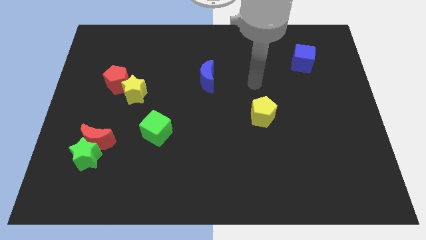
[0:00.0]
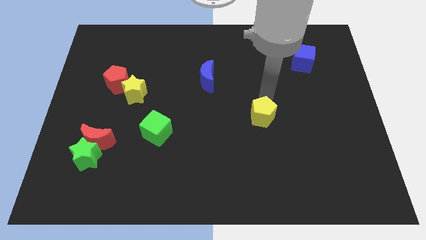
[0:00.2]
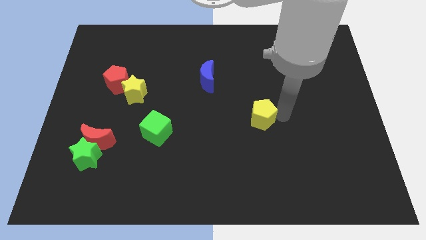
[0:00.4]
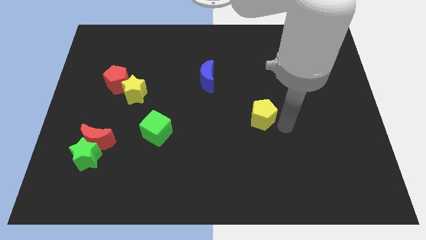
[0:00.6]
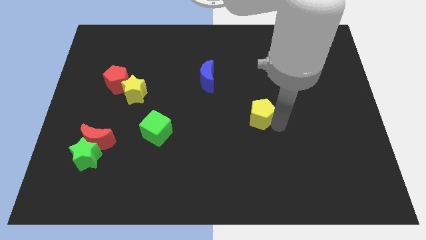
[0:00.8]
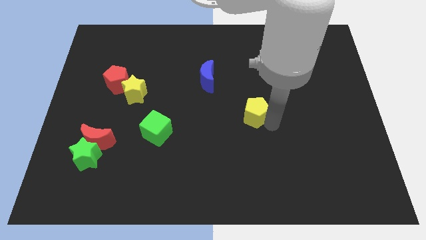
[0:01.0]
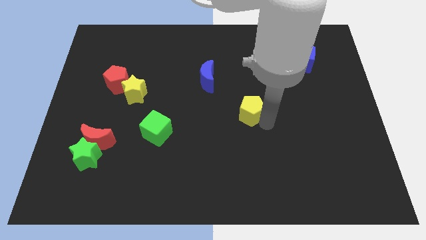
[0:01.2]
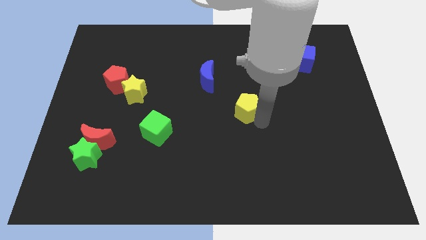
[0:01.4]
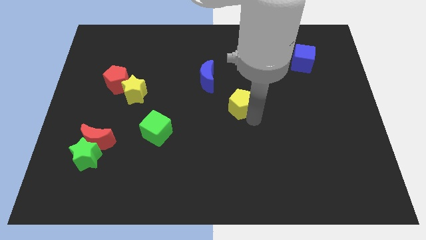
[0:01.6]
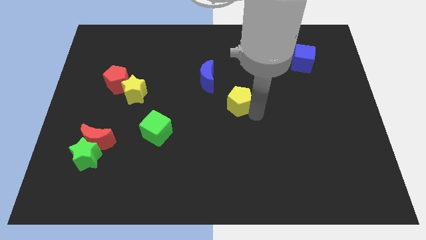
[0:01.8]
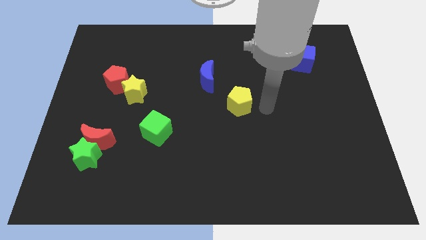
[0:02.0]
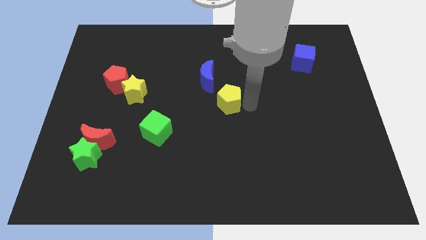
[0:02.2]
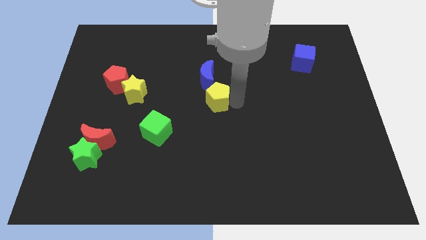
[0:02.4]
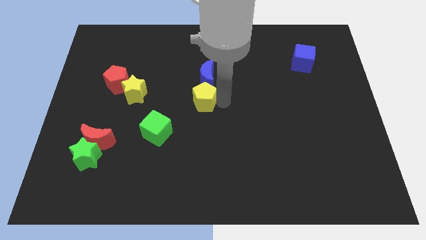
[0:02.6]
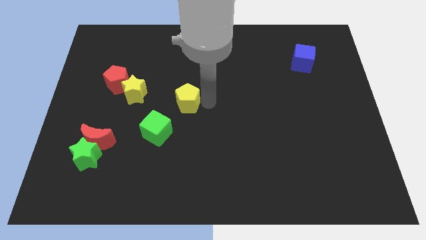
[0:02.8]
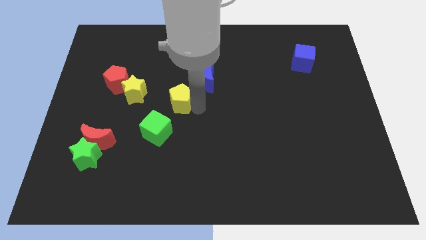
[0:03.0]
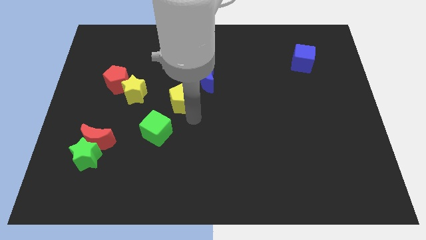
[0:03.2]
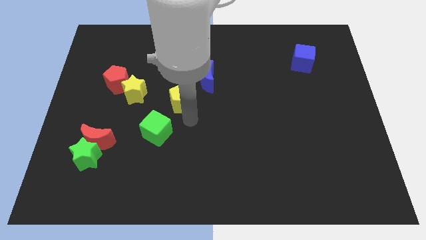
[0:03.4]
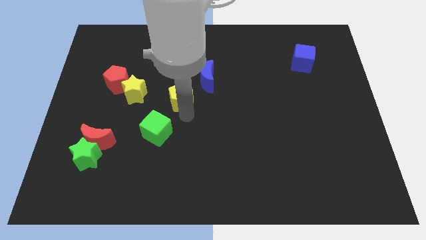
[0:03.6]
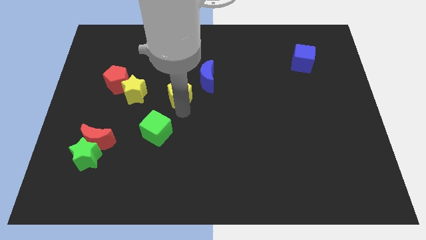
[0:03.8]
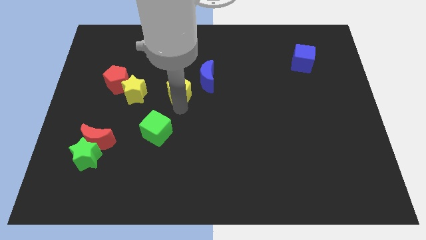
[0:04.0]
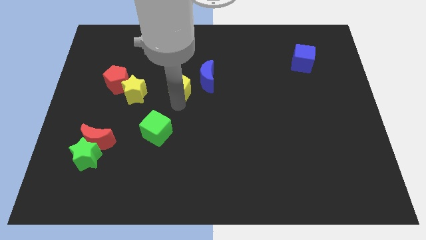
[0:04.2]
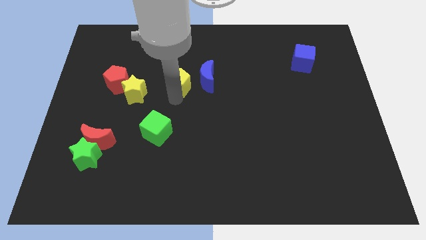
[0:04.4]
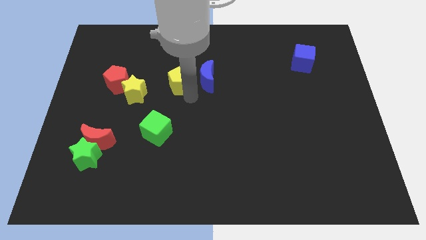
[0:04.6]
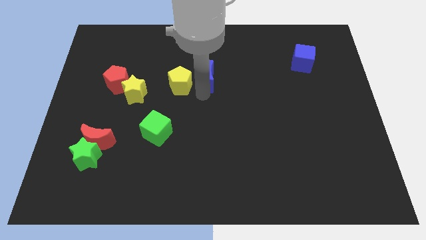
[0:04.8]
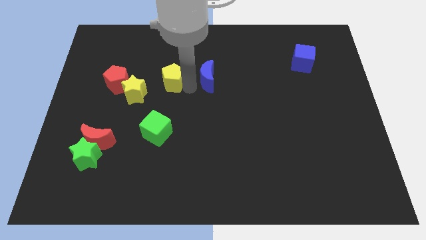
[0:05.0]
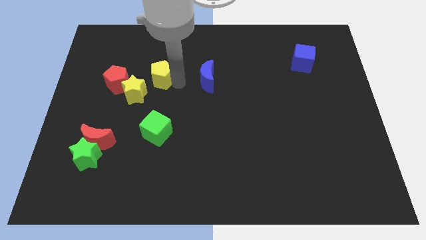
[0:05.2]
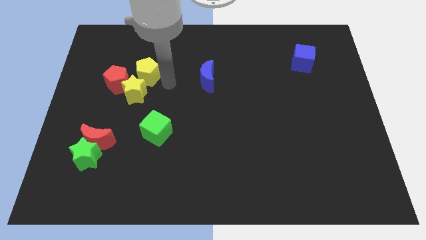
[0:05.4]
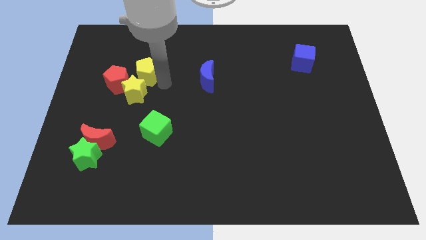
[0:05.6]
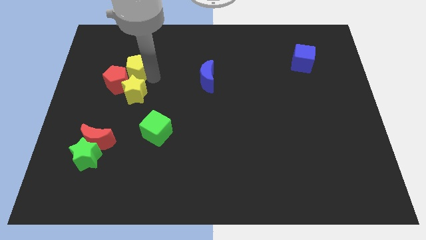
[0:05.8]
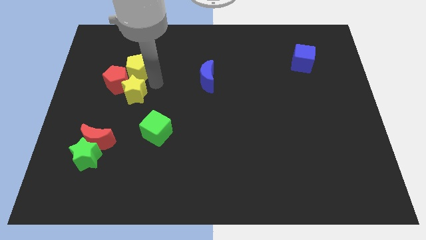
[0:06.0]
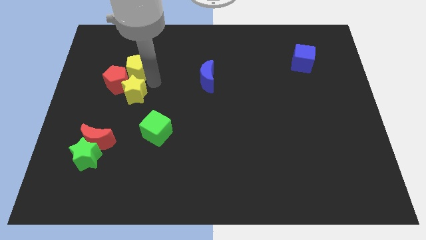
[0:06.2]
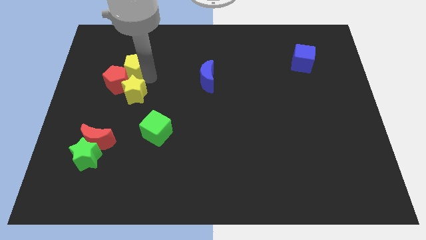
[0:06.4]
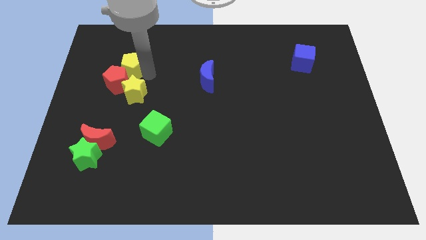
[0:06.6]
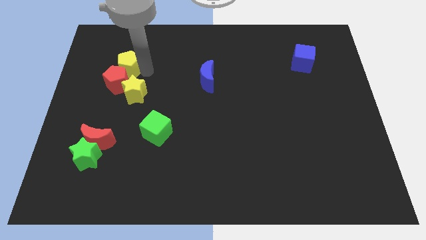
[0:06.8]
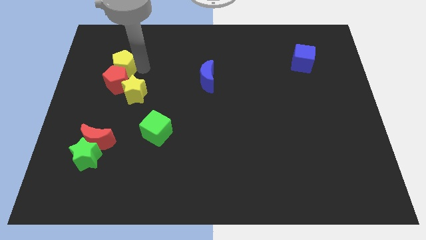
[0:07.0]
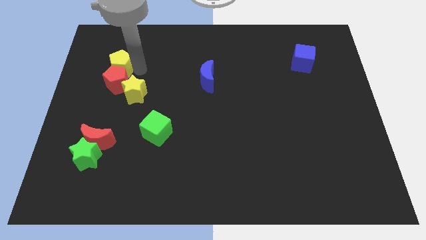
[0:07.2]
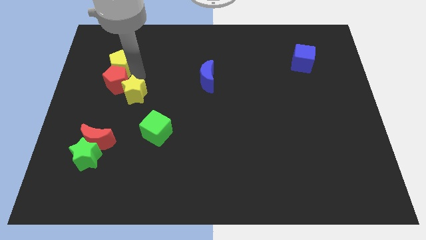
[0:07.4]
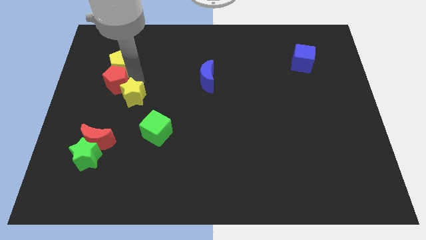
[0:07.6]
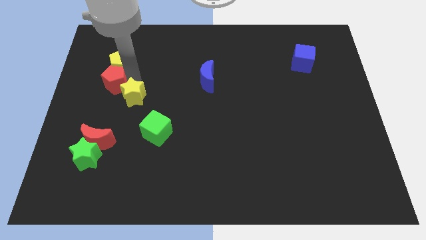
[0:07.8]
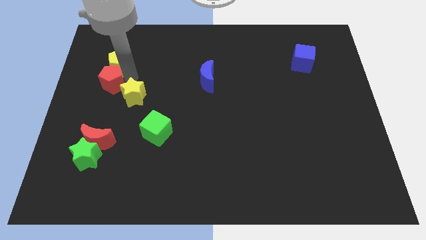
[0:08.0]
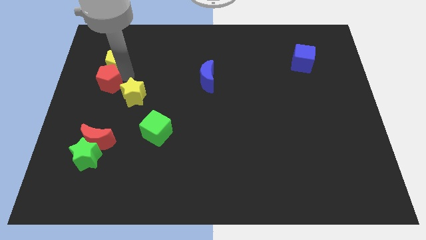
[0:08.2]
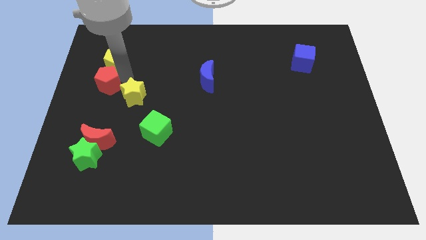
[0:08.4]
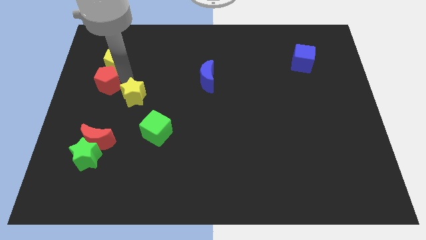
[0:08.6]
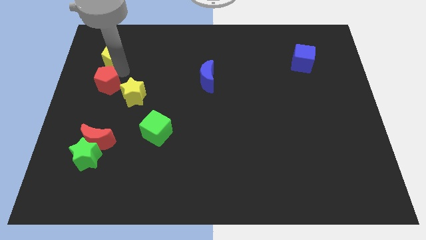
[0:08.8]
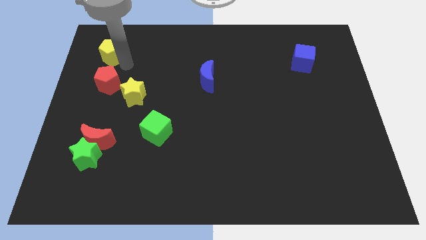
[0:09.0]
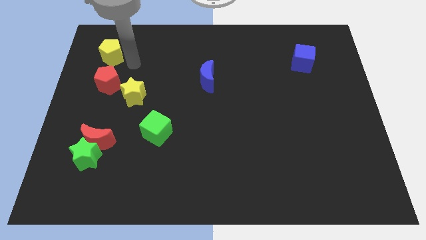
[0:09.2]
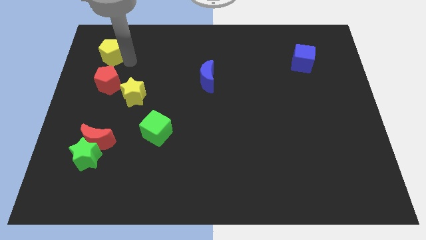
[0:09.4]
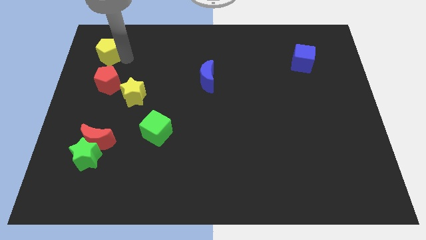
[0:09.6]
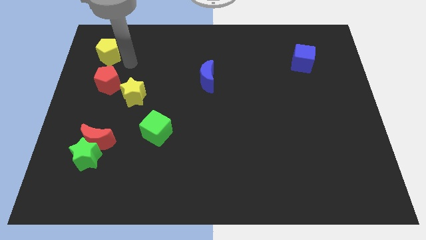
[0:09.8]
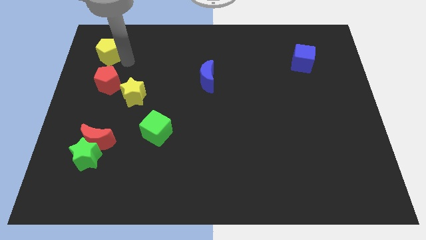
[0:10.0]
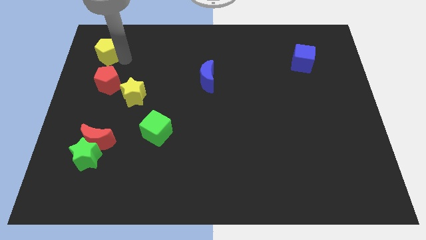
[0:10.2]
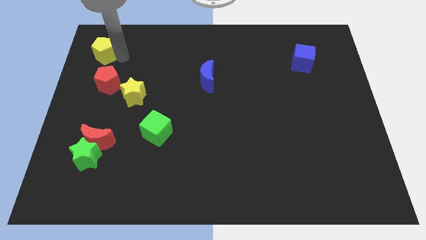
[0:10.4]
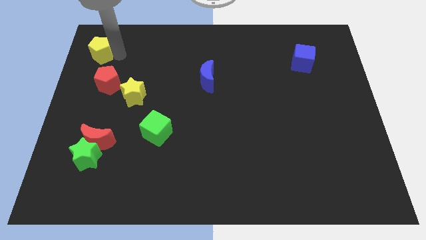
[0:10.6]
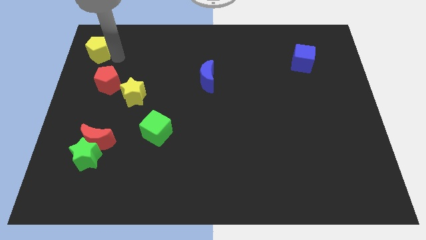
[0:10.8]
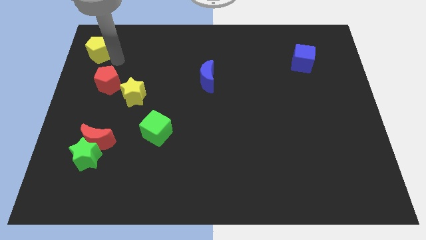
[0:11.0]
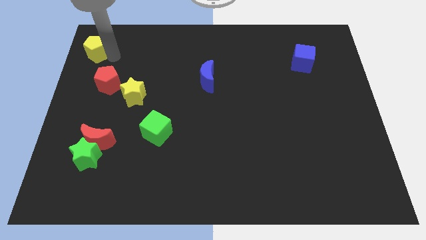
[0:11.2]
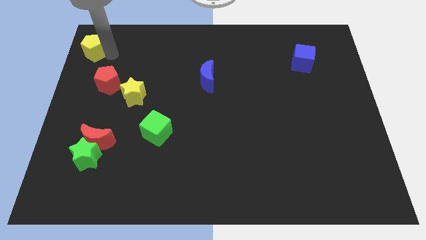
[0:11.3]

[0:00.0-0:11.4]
put the yellow pentagon to the top left corner

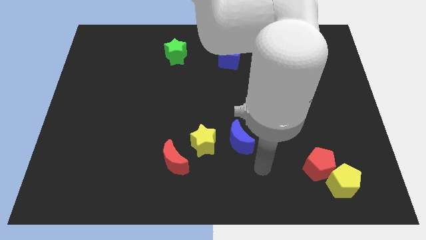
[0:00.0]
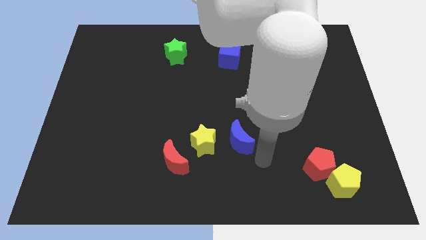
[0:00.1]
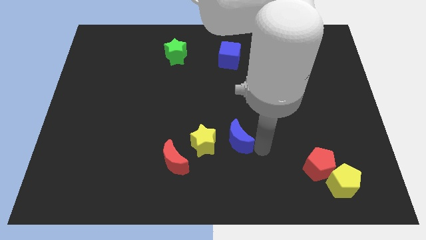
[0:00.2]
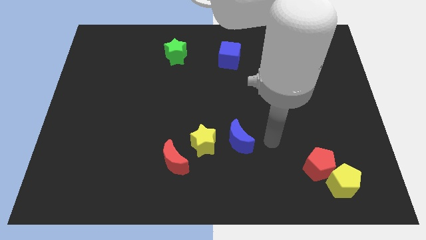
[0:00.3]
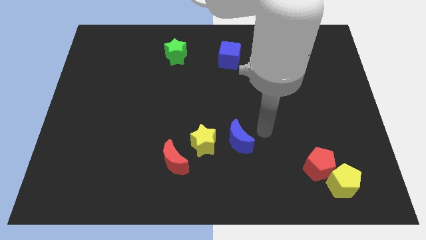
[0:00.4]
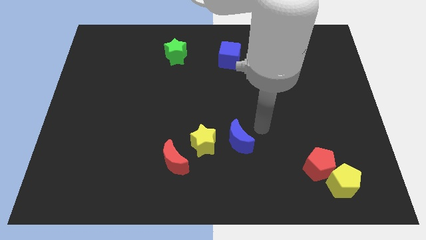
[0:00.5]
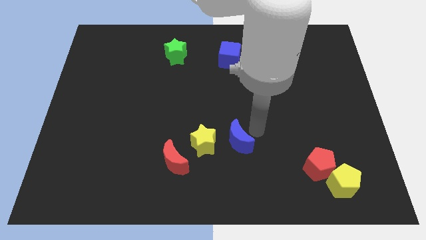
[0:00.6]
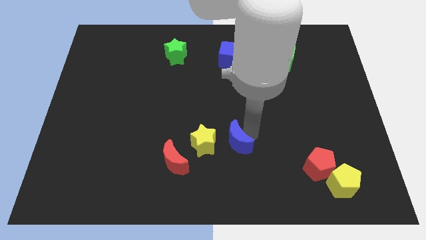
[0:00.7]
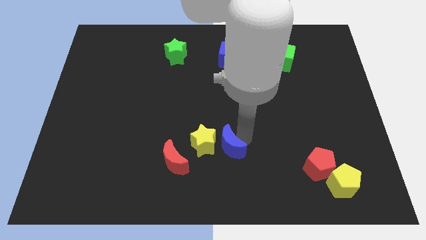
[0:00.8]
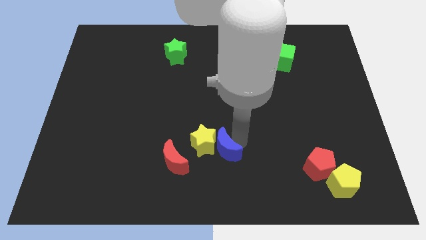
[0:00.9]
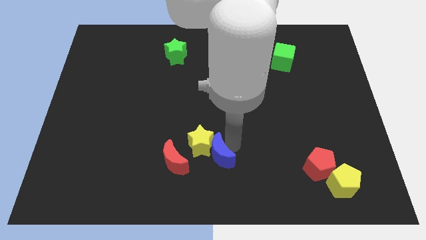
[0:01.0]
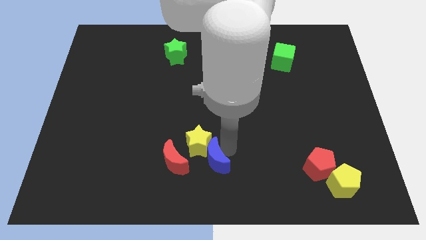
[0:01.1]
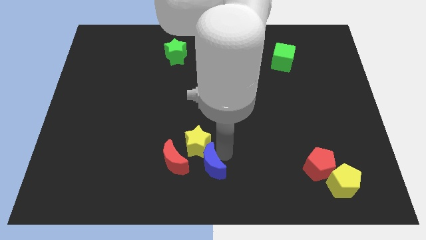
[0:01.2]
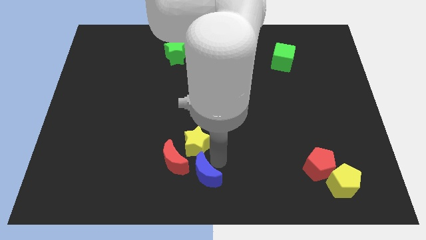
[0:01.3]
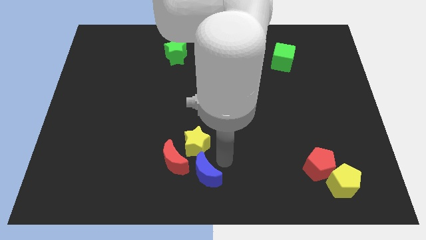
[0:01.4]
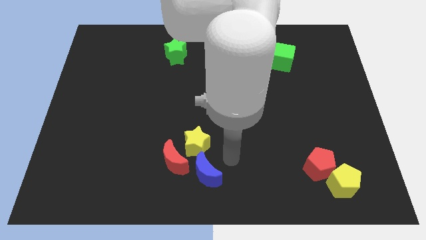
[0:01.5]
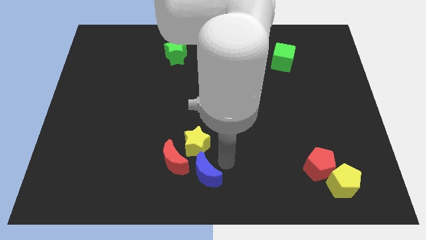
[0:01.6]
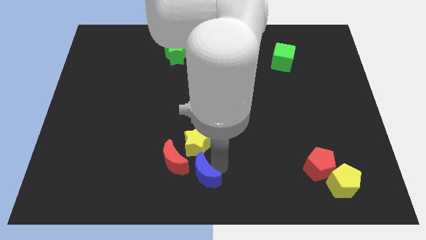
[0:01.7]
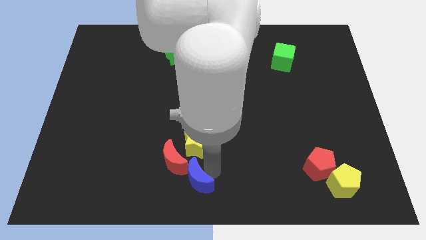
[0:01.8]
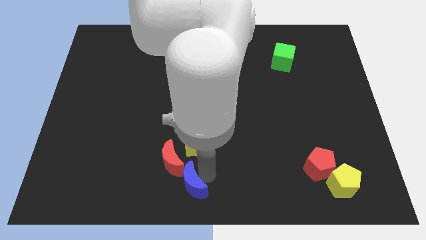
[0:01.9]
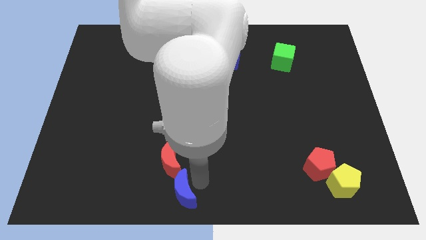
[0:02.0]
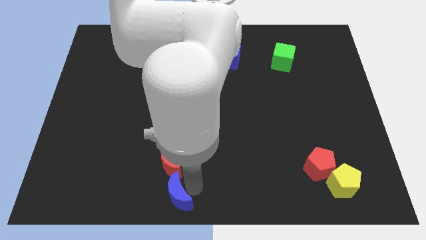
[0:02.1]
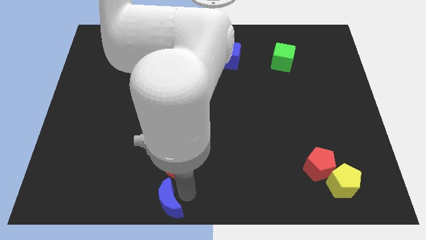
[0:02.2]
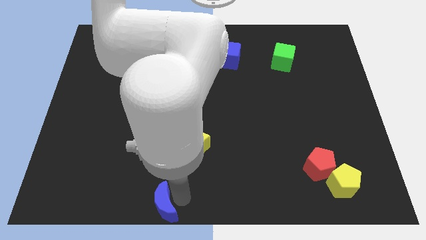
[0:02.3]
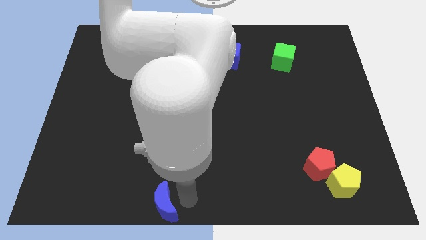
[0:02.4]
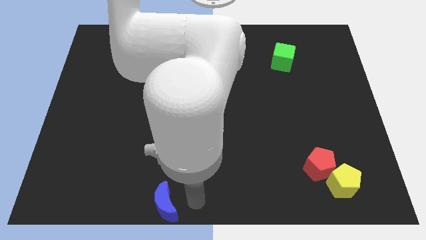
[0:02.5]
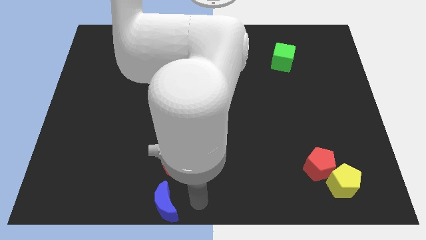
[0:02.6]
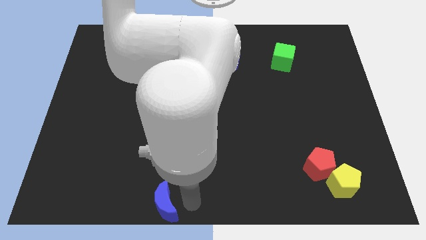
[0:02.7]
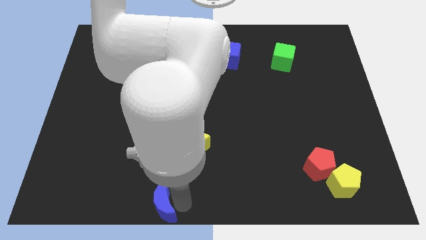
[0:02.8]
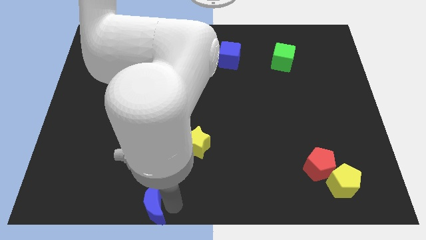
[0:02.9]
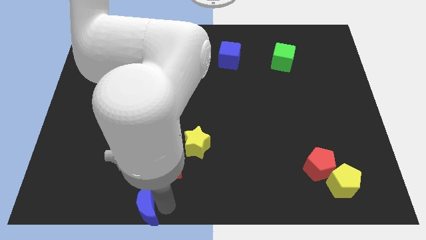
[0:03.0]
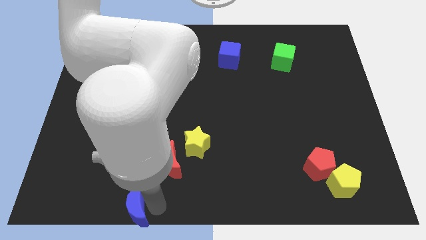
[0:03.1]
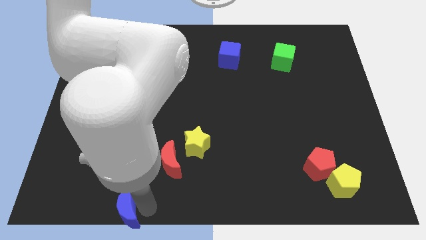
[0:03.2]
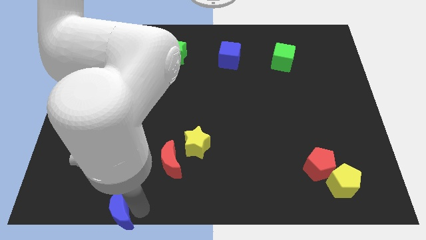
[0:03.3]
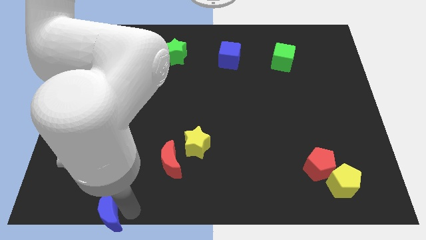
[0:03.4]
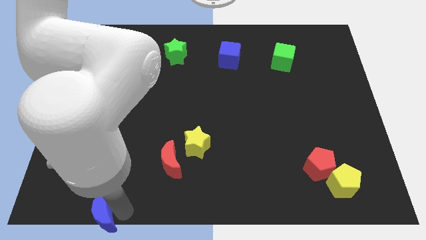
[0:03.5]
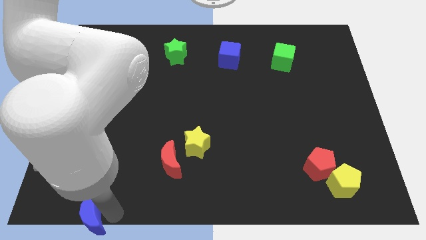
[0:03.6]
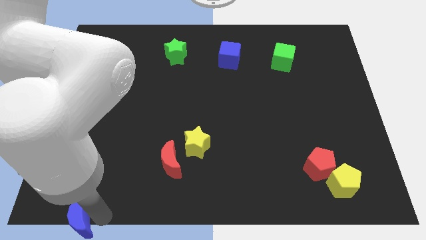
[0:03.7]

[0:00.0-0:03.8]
slide the blue moon to the bottom left corner
